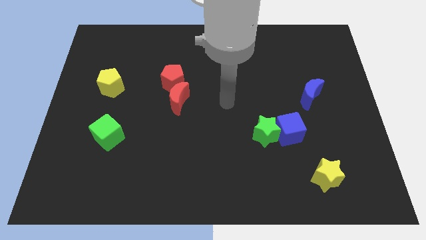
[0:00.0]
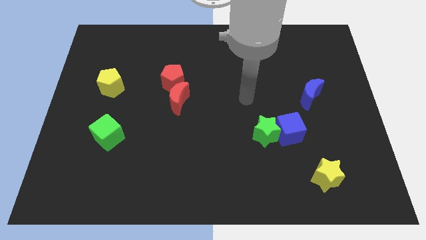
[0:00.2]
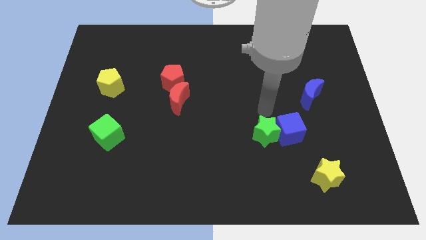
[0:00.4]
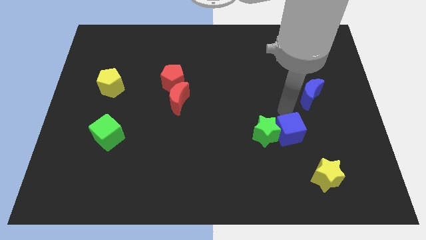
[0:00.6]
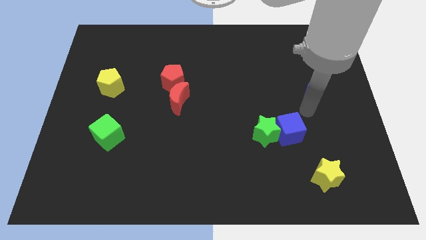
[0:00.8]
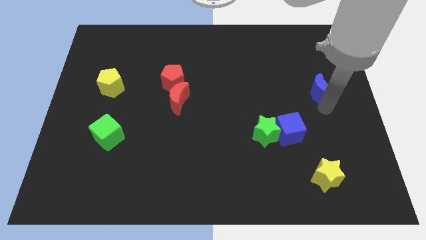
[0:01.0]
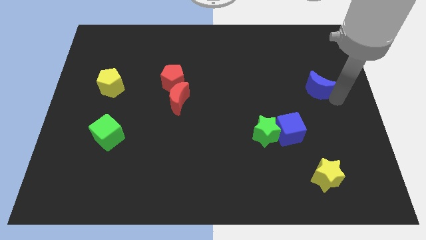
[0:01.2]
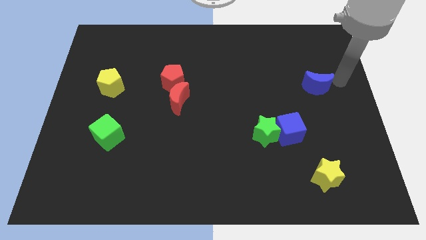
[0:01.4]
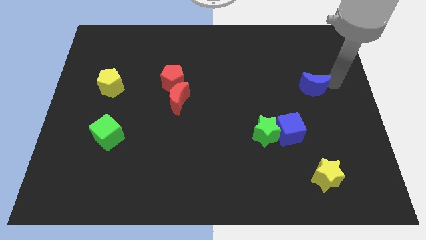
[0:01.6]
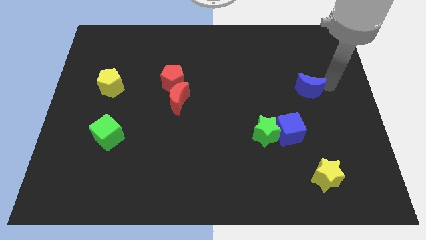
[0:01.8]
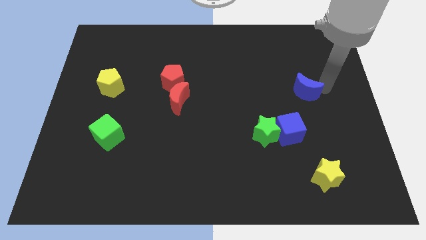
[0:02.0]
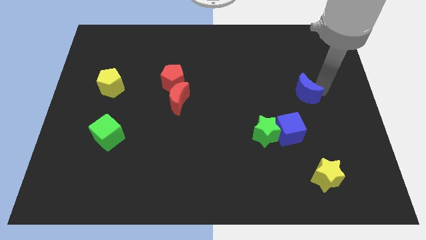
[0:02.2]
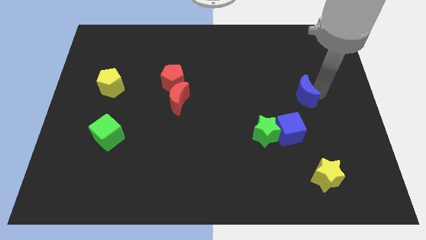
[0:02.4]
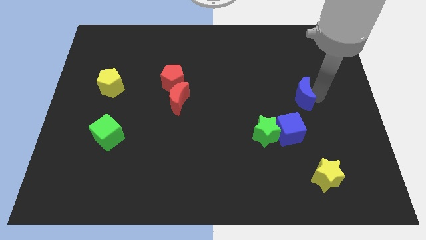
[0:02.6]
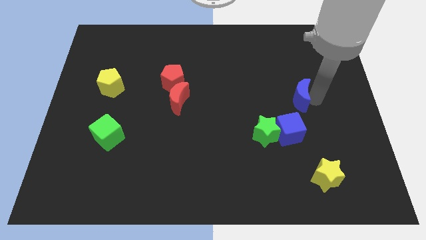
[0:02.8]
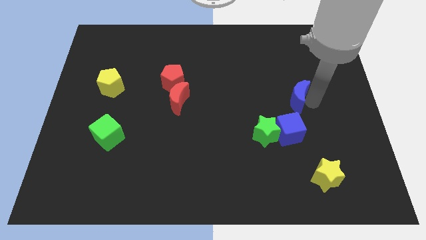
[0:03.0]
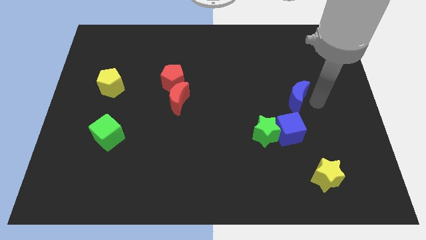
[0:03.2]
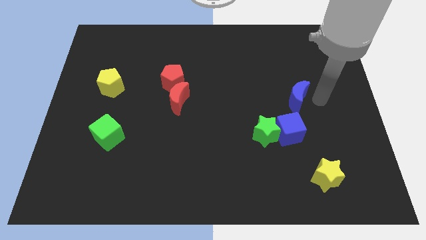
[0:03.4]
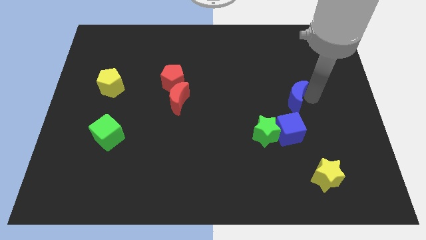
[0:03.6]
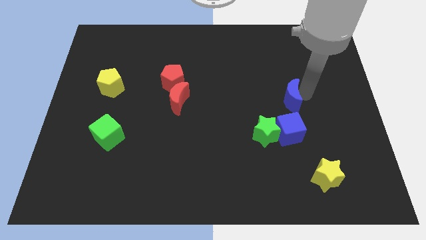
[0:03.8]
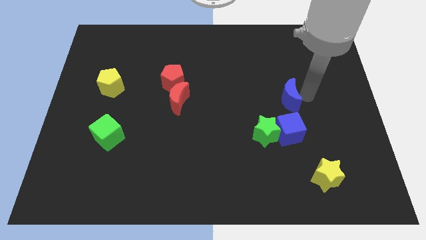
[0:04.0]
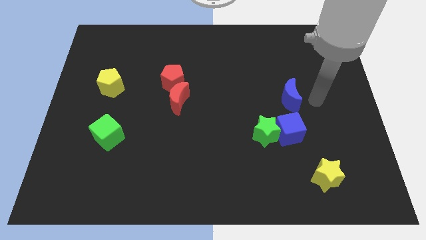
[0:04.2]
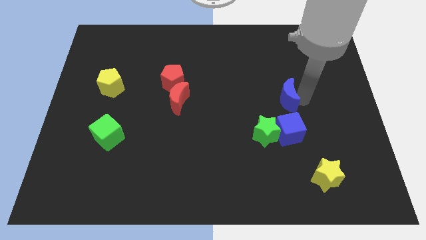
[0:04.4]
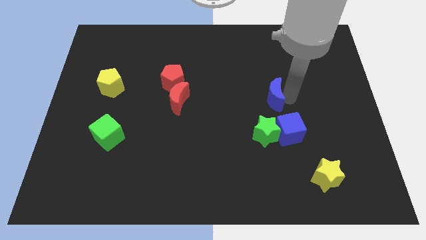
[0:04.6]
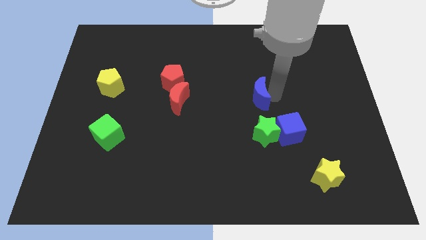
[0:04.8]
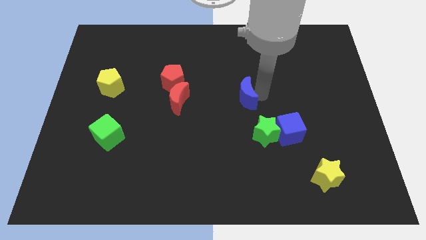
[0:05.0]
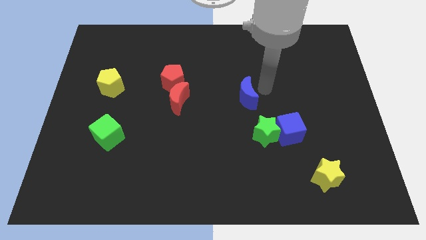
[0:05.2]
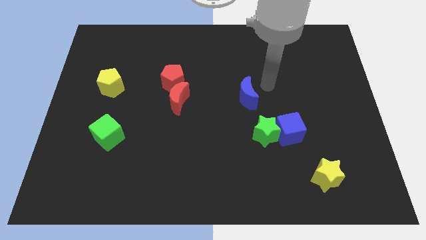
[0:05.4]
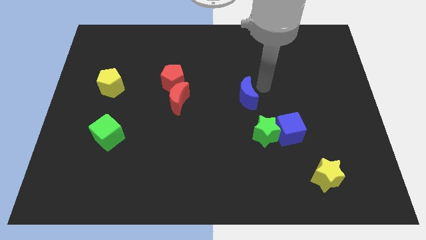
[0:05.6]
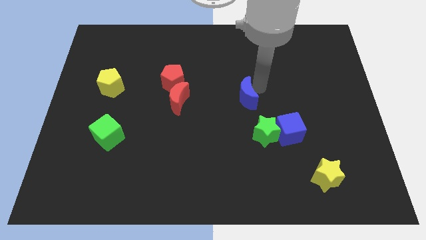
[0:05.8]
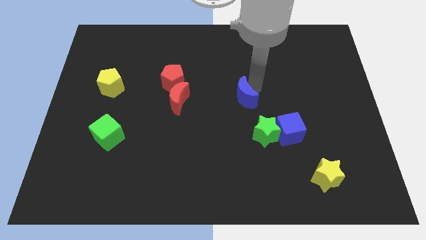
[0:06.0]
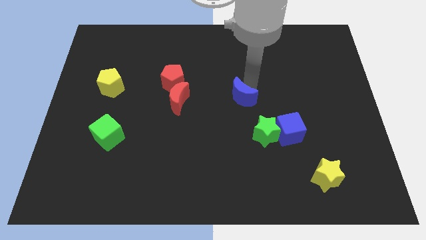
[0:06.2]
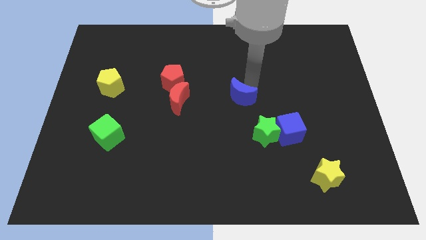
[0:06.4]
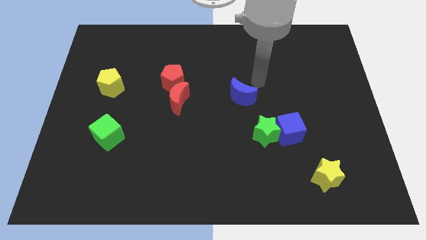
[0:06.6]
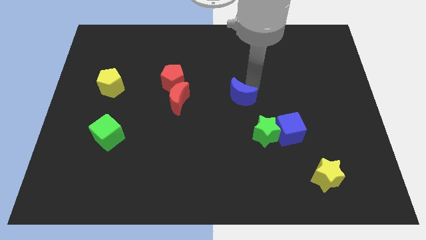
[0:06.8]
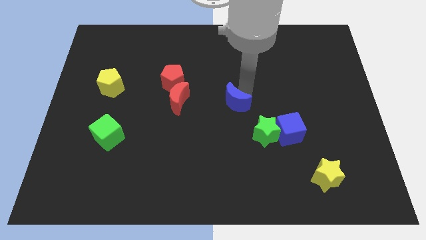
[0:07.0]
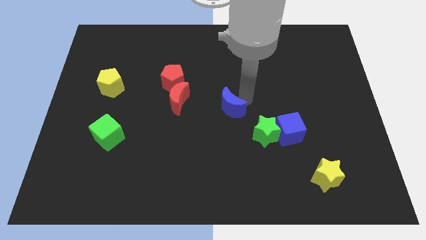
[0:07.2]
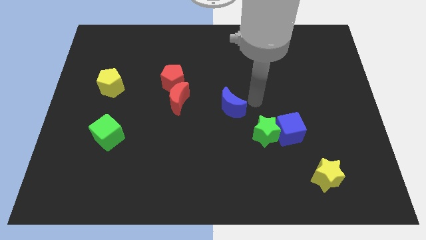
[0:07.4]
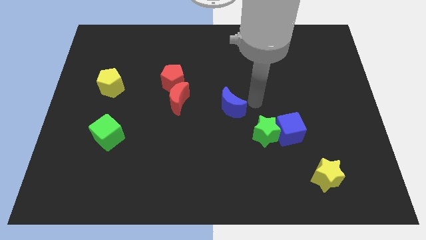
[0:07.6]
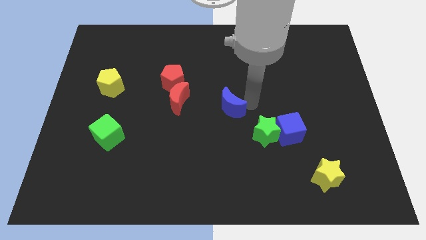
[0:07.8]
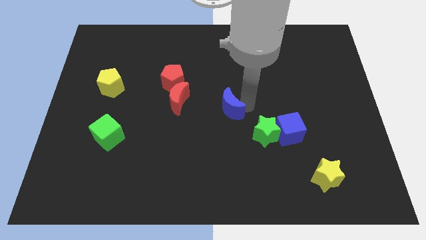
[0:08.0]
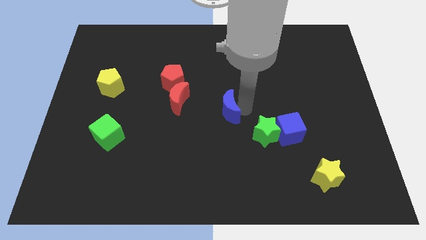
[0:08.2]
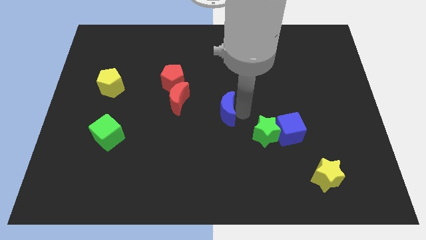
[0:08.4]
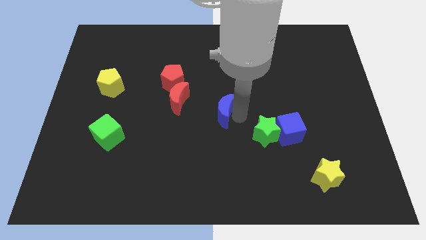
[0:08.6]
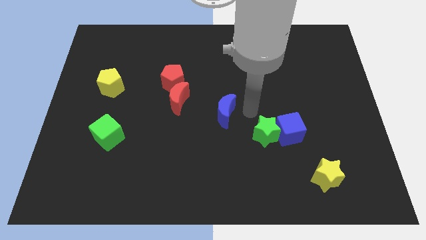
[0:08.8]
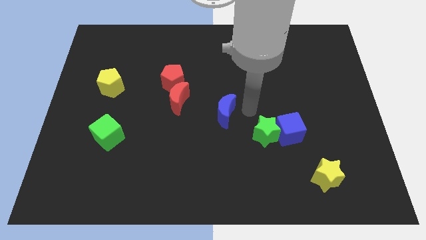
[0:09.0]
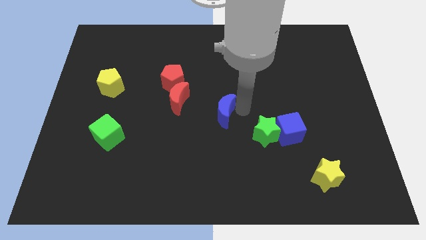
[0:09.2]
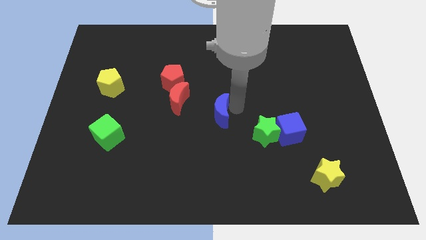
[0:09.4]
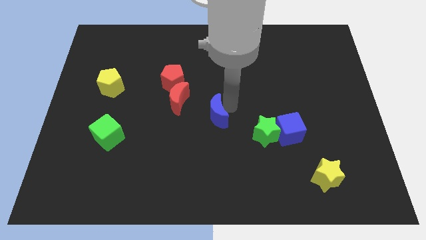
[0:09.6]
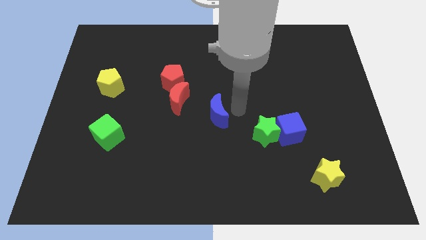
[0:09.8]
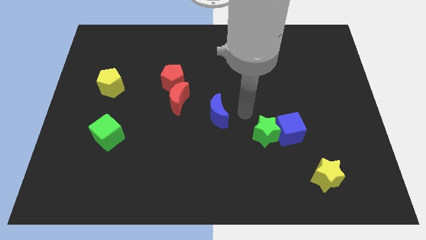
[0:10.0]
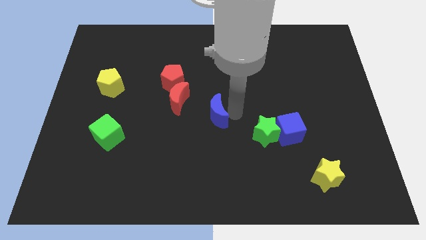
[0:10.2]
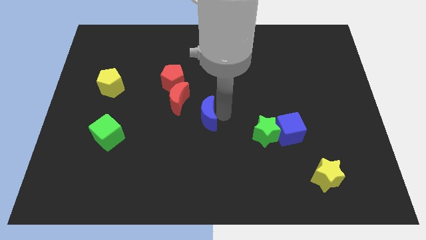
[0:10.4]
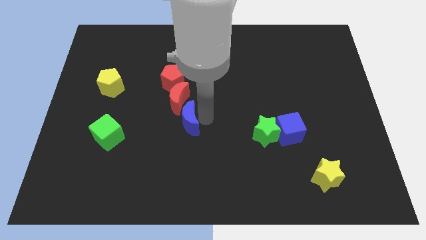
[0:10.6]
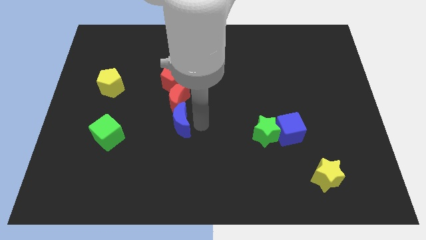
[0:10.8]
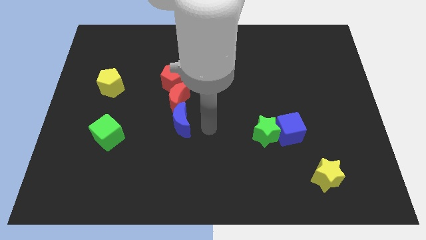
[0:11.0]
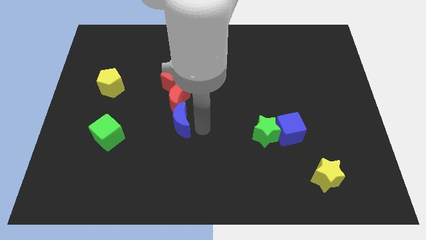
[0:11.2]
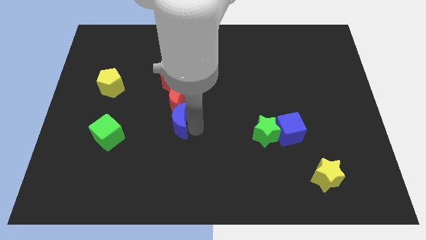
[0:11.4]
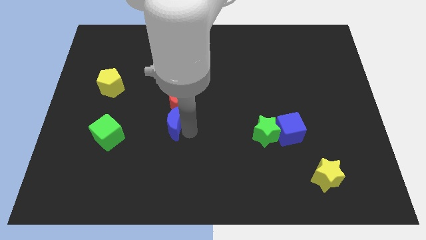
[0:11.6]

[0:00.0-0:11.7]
move the blue moon diagonally down and to the left of the red moon

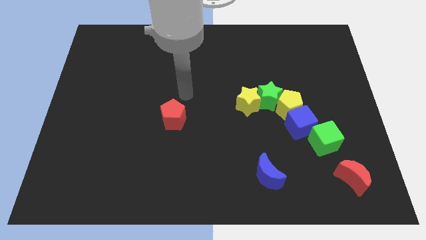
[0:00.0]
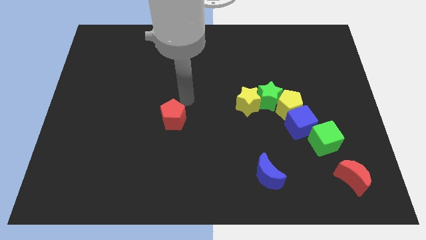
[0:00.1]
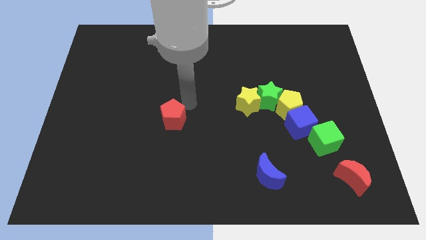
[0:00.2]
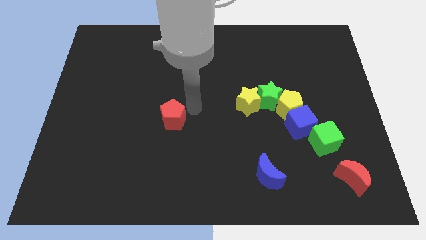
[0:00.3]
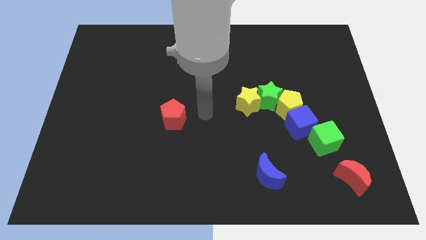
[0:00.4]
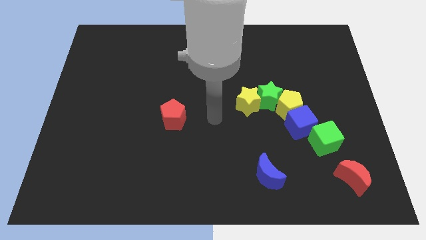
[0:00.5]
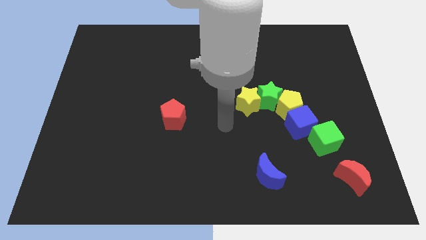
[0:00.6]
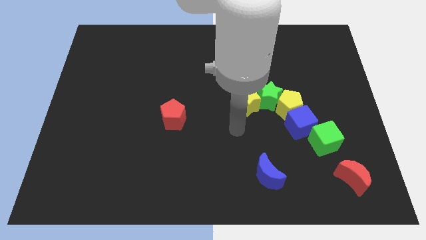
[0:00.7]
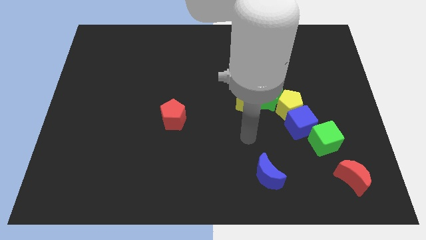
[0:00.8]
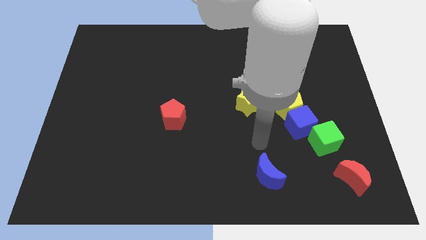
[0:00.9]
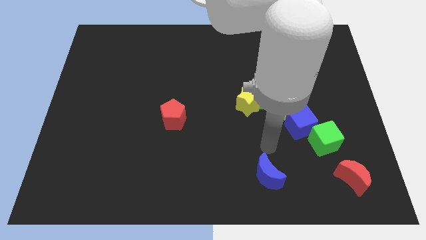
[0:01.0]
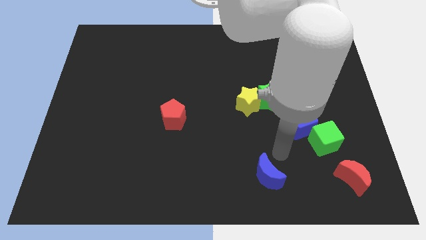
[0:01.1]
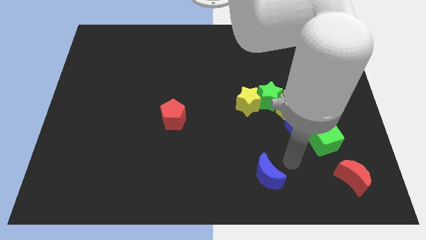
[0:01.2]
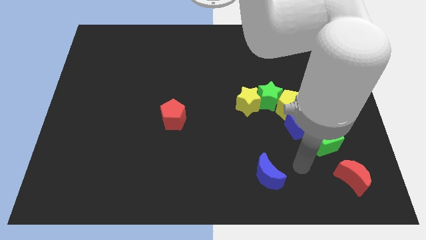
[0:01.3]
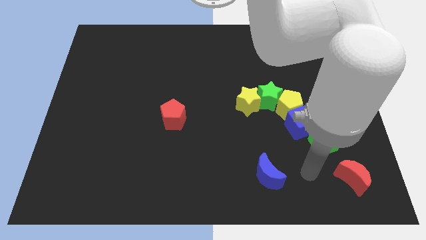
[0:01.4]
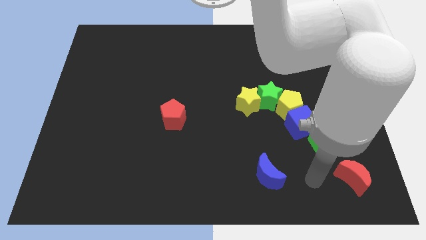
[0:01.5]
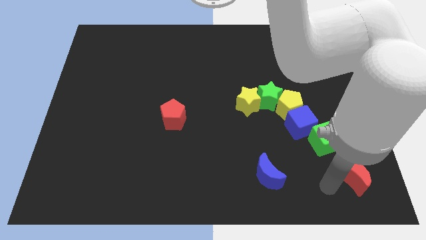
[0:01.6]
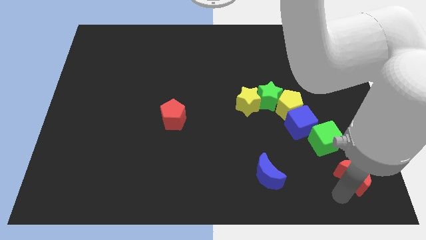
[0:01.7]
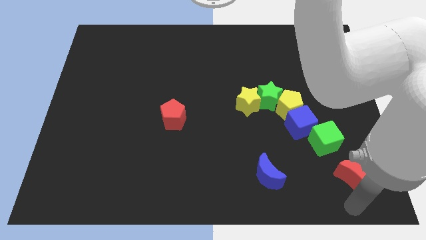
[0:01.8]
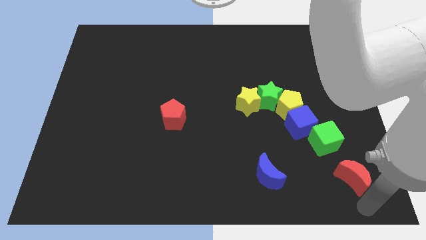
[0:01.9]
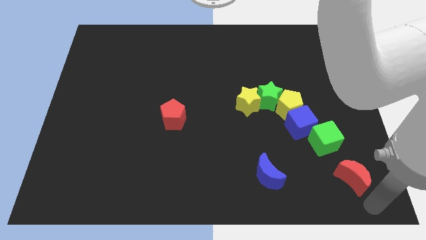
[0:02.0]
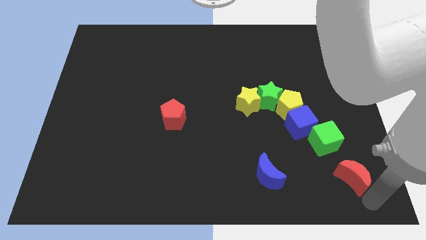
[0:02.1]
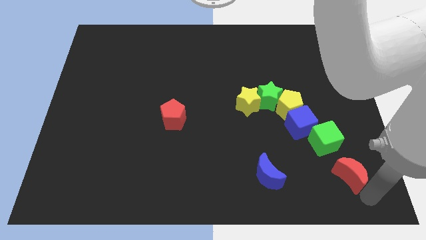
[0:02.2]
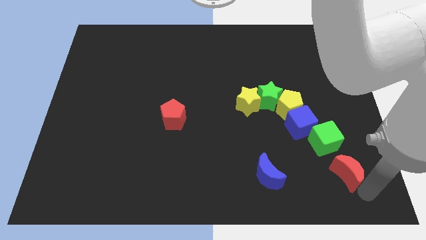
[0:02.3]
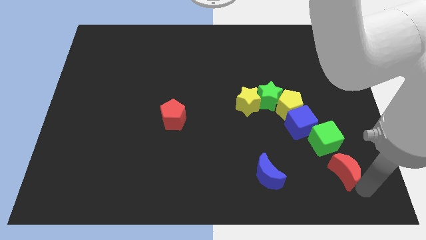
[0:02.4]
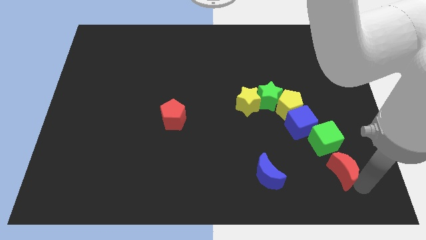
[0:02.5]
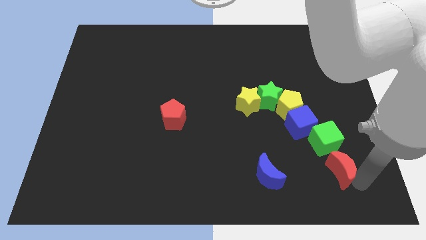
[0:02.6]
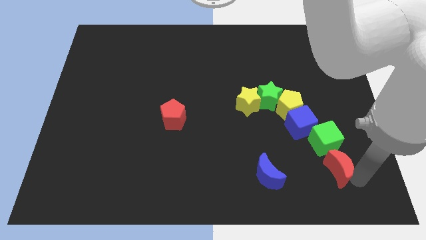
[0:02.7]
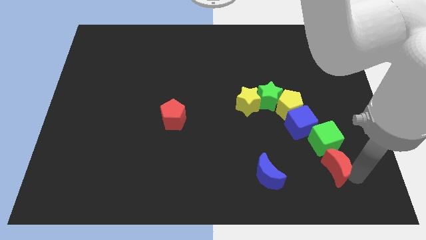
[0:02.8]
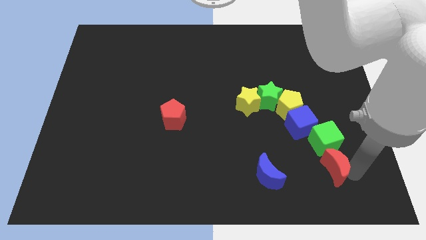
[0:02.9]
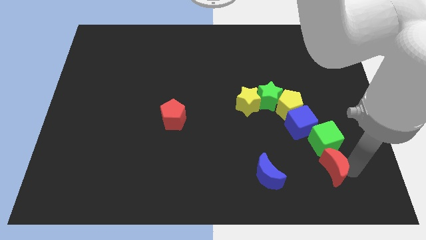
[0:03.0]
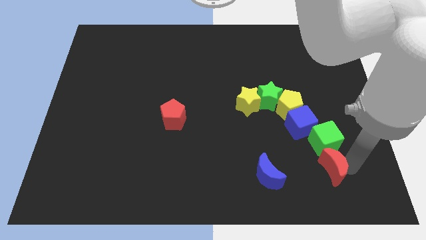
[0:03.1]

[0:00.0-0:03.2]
put the red moon to the bottom right of the blue cube
